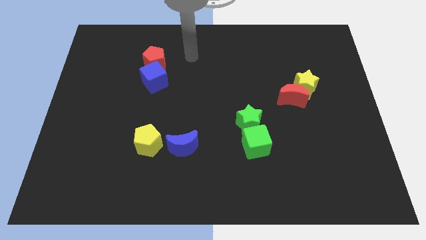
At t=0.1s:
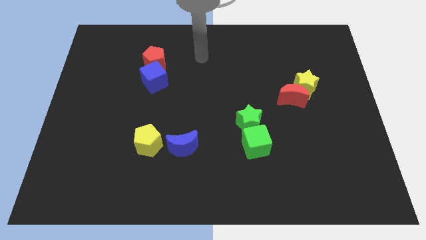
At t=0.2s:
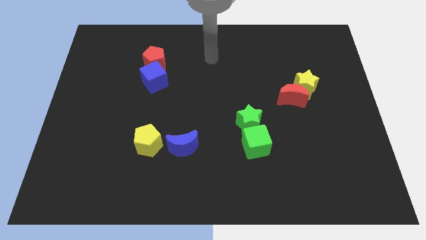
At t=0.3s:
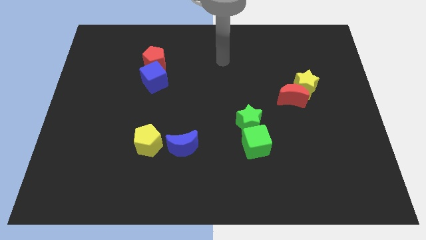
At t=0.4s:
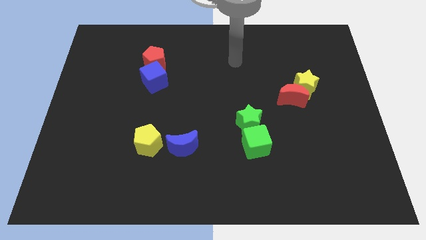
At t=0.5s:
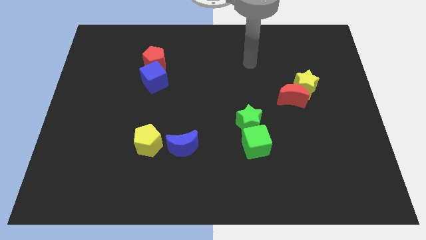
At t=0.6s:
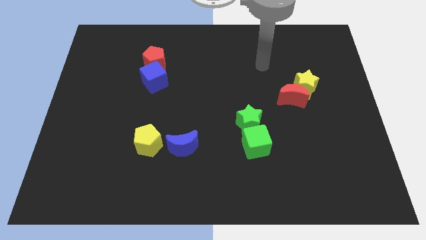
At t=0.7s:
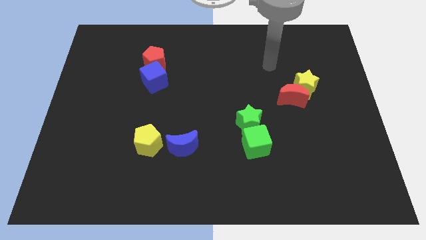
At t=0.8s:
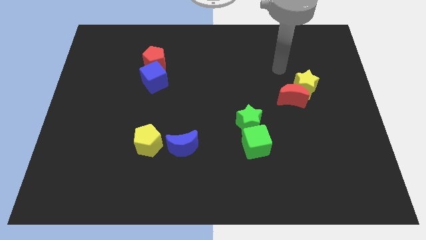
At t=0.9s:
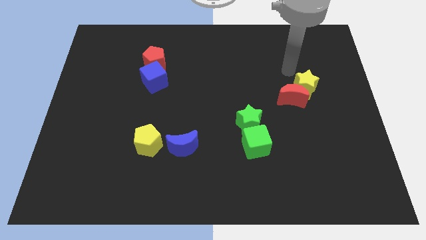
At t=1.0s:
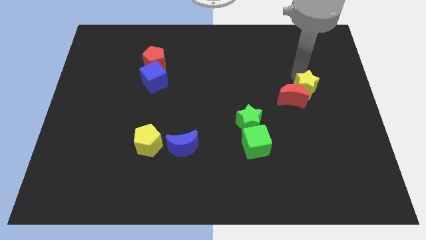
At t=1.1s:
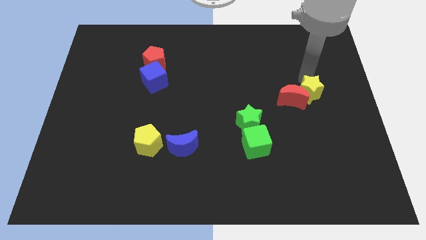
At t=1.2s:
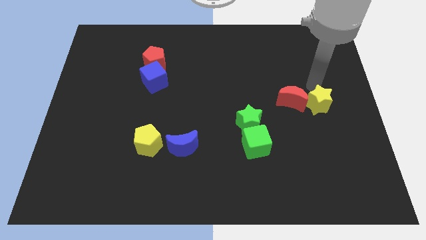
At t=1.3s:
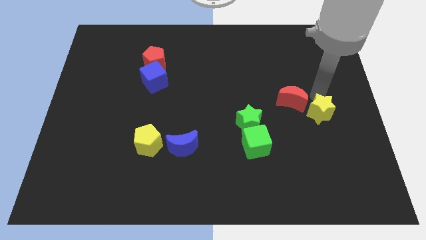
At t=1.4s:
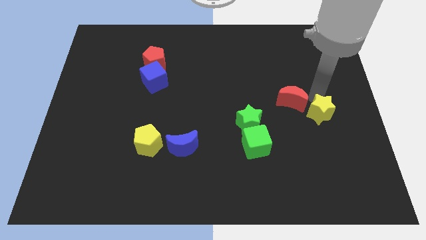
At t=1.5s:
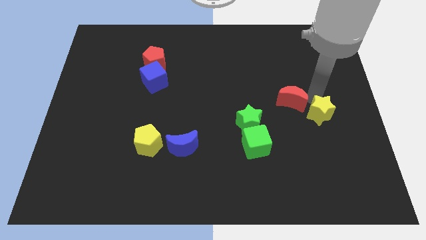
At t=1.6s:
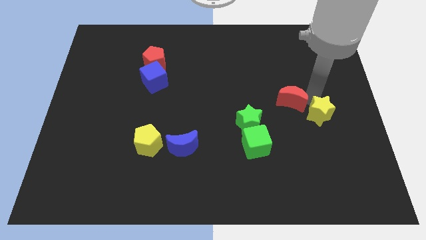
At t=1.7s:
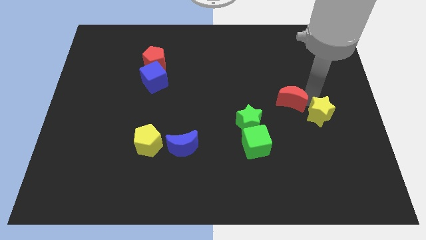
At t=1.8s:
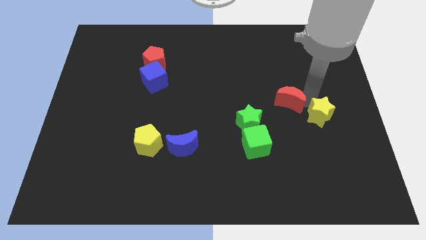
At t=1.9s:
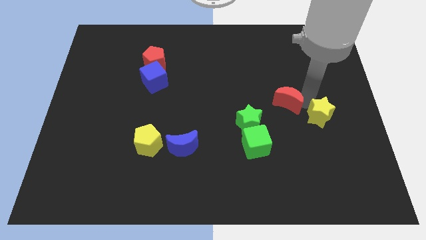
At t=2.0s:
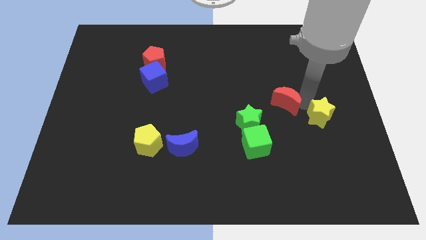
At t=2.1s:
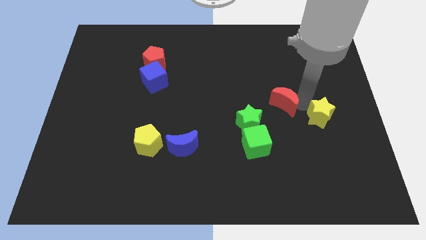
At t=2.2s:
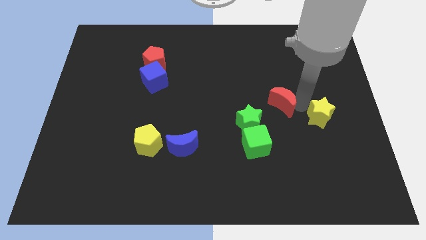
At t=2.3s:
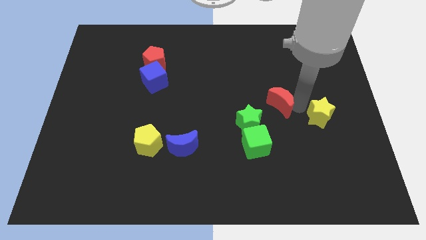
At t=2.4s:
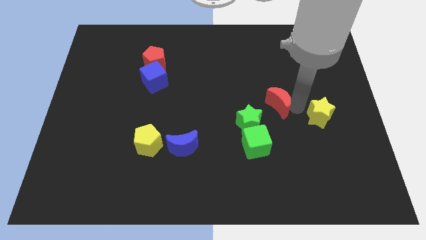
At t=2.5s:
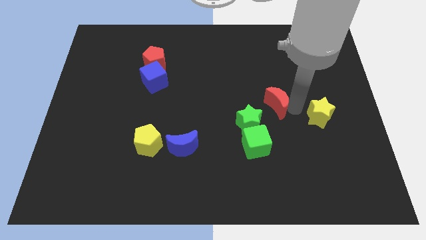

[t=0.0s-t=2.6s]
move the red moon away from the yellow star

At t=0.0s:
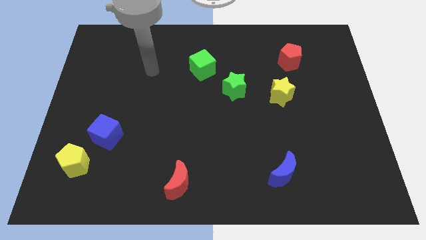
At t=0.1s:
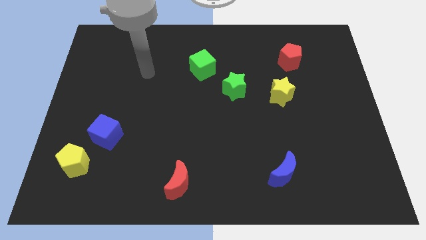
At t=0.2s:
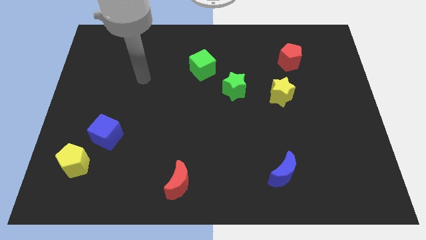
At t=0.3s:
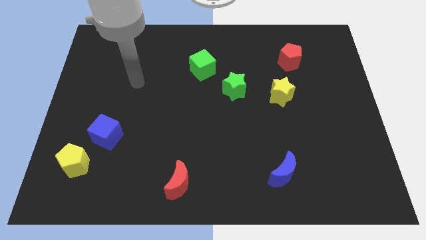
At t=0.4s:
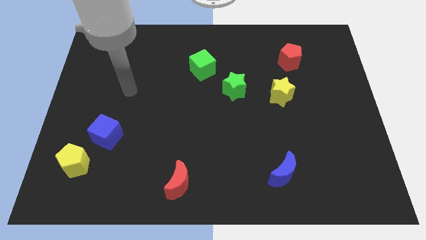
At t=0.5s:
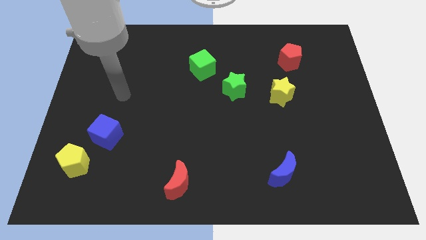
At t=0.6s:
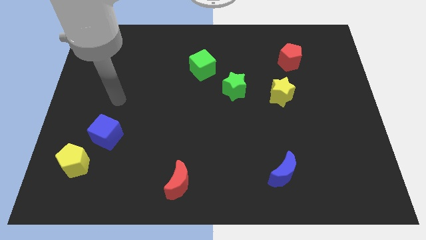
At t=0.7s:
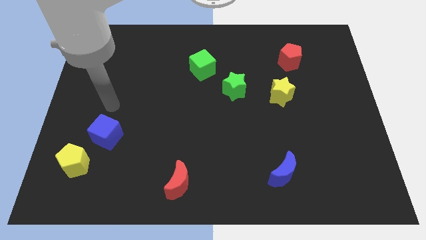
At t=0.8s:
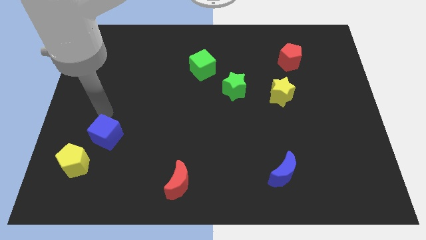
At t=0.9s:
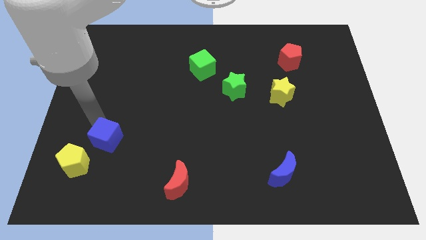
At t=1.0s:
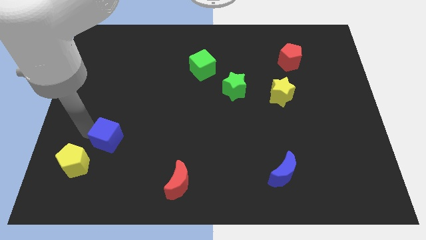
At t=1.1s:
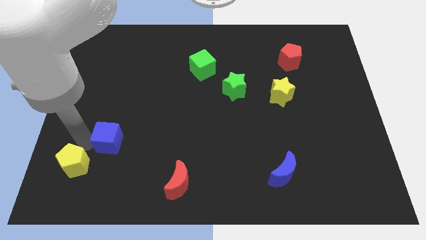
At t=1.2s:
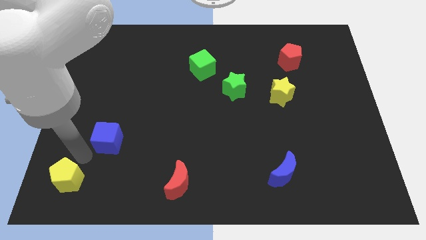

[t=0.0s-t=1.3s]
move the blue cube away from the yellow pentagon

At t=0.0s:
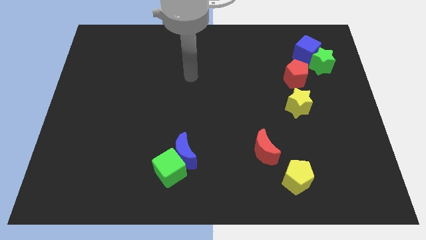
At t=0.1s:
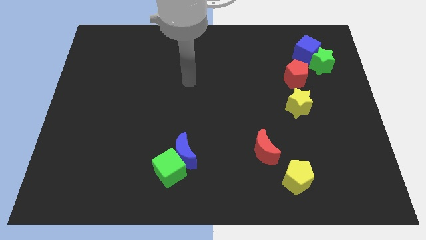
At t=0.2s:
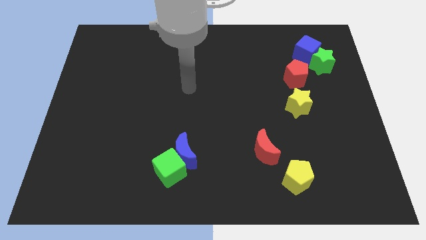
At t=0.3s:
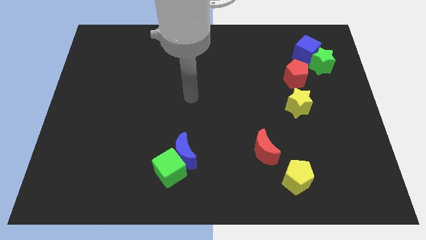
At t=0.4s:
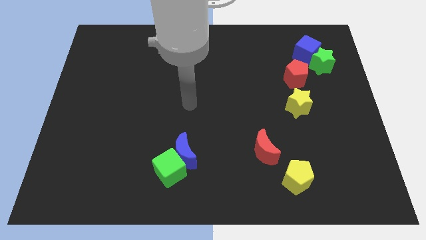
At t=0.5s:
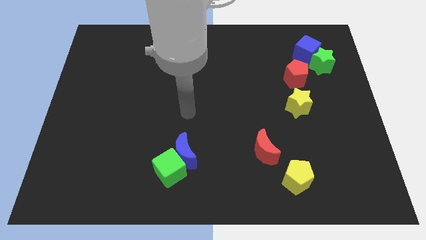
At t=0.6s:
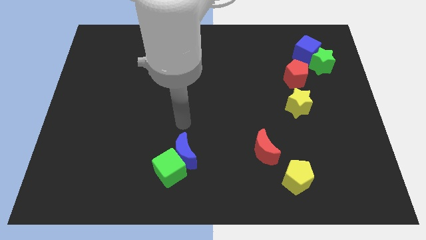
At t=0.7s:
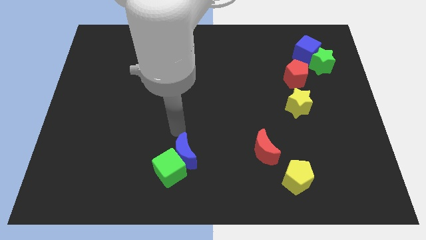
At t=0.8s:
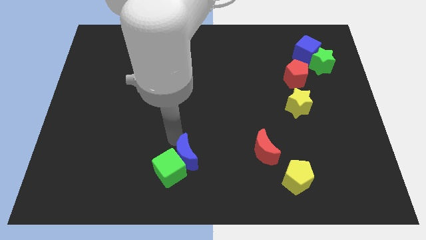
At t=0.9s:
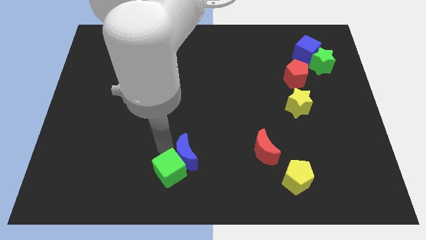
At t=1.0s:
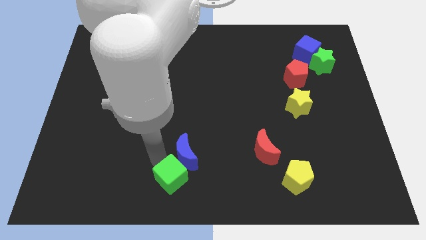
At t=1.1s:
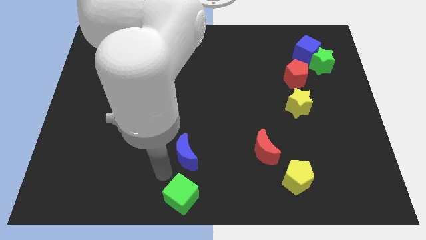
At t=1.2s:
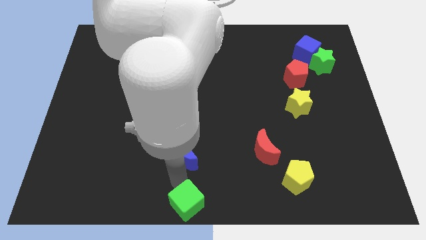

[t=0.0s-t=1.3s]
separate the blue moon from the green cube

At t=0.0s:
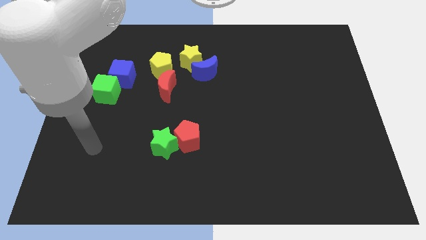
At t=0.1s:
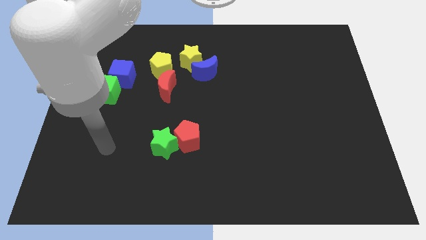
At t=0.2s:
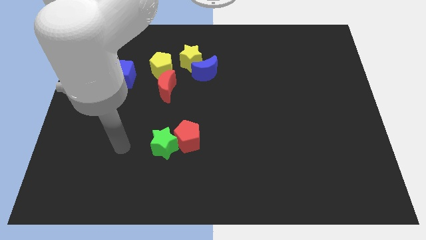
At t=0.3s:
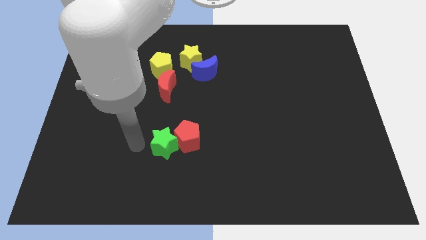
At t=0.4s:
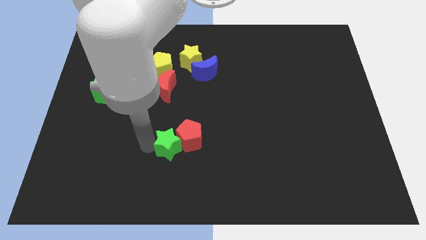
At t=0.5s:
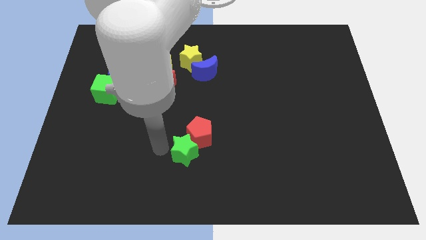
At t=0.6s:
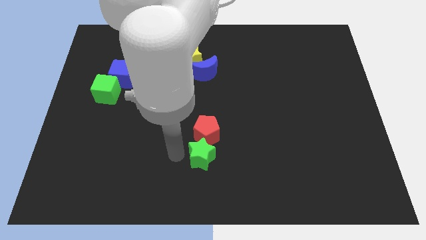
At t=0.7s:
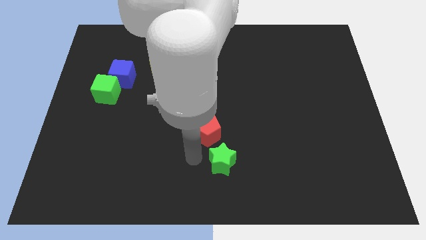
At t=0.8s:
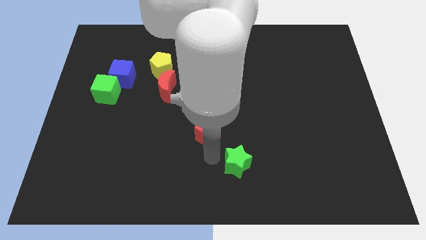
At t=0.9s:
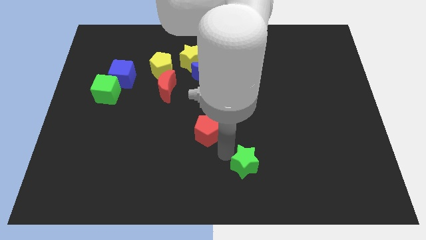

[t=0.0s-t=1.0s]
pull the red pentagon apart from the green star

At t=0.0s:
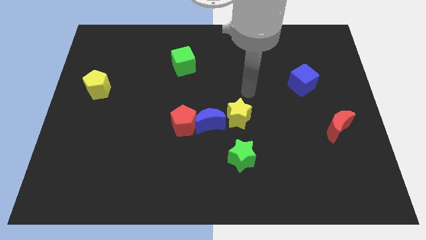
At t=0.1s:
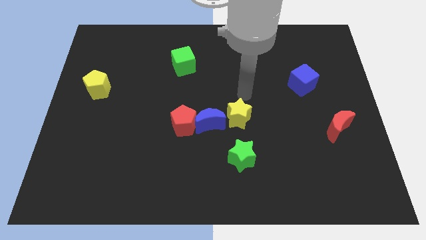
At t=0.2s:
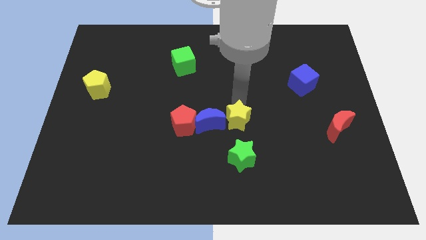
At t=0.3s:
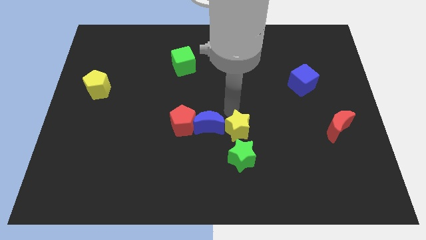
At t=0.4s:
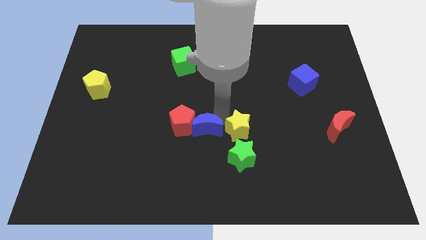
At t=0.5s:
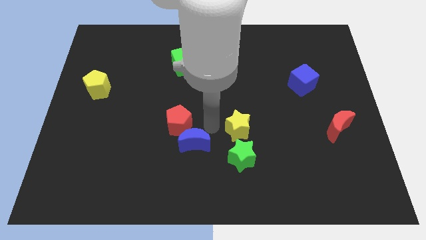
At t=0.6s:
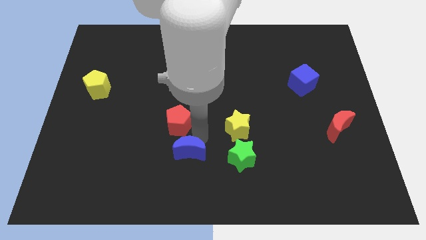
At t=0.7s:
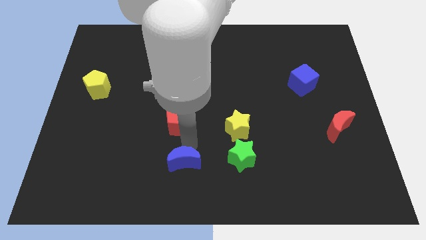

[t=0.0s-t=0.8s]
move the red pentagon away from the blue moon

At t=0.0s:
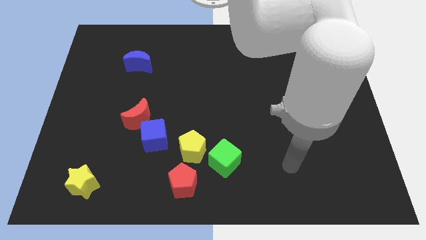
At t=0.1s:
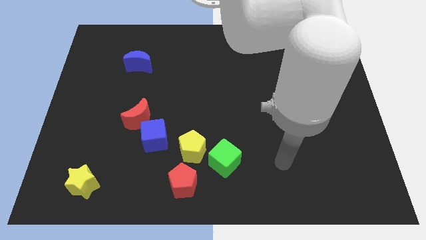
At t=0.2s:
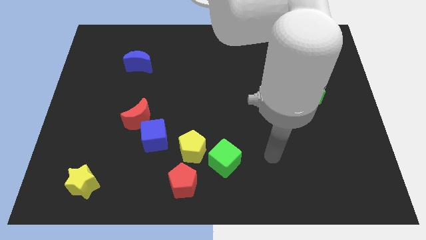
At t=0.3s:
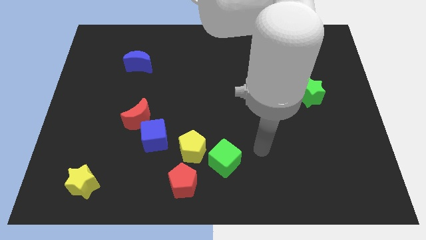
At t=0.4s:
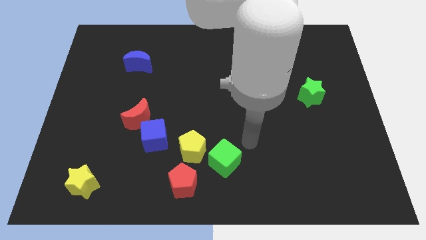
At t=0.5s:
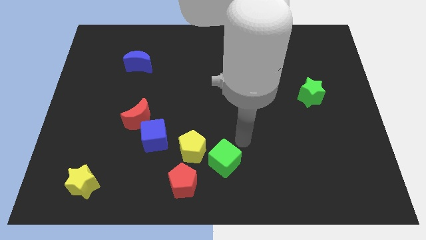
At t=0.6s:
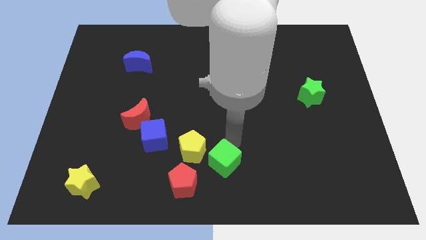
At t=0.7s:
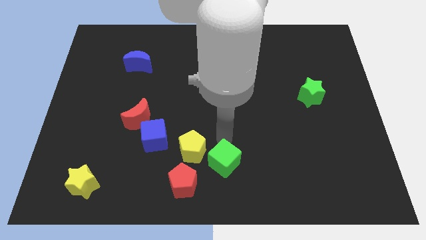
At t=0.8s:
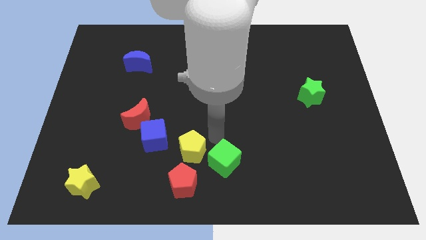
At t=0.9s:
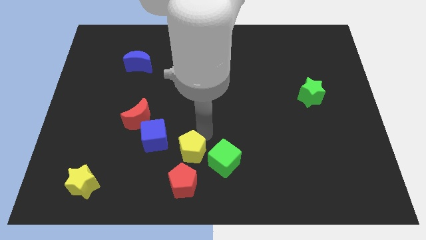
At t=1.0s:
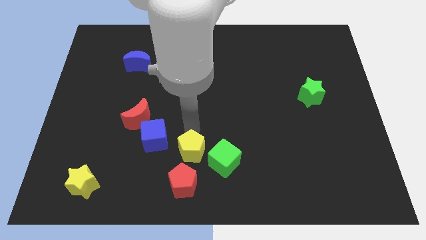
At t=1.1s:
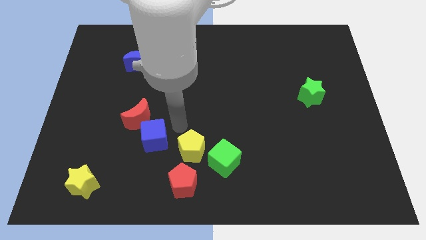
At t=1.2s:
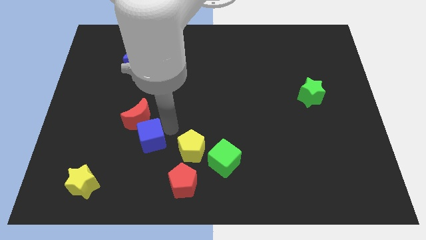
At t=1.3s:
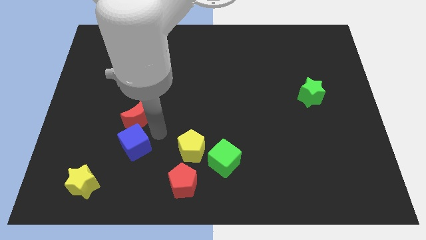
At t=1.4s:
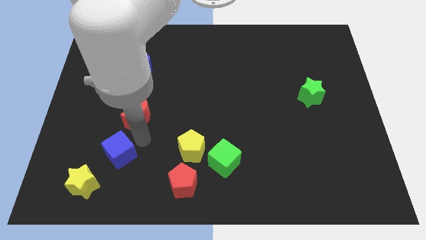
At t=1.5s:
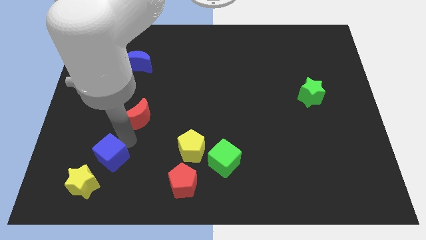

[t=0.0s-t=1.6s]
separate the red moon from the blue cube

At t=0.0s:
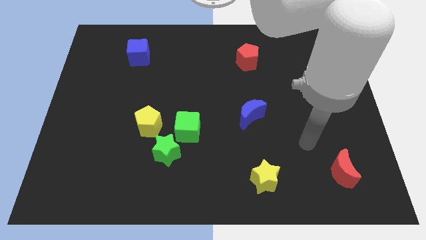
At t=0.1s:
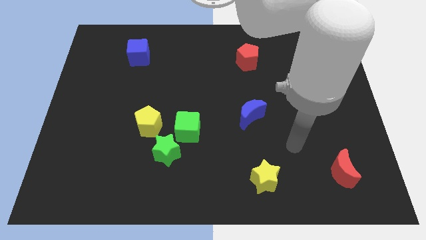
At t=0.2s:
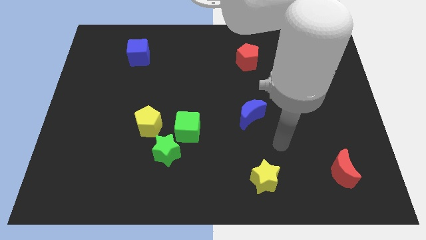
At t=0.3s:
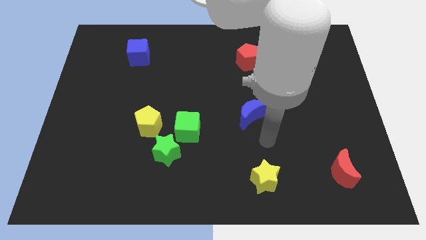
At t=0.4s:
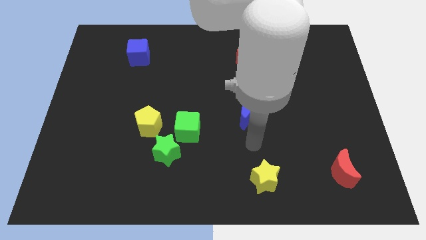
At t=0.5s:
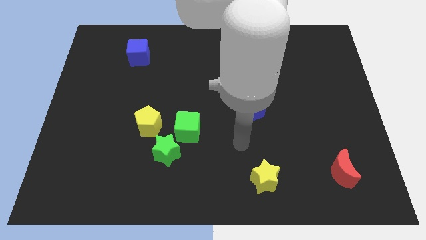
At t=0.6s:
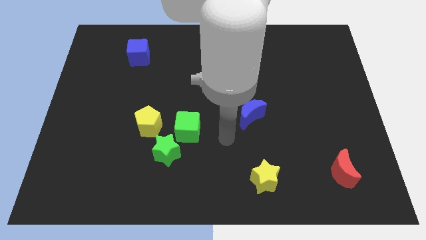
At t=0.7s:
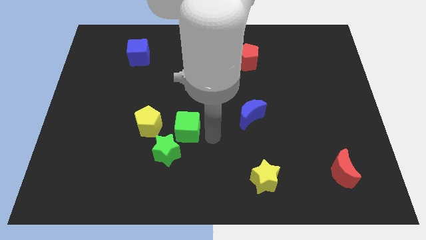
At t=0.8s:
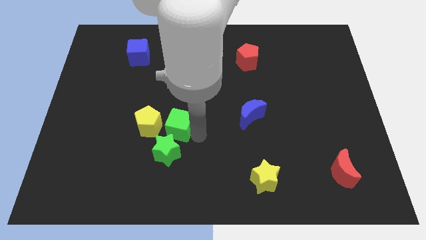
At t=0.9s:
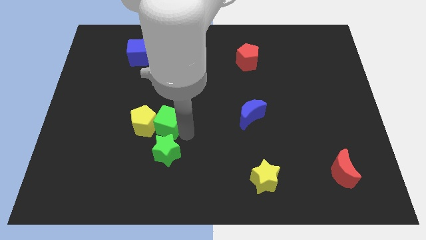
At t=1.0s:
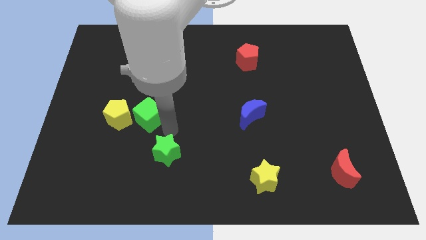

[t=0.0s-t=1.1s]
pull the green star apart from the green cube and yellow pentagon
